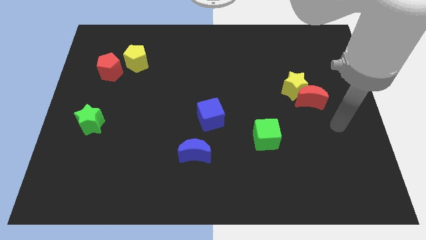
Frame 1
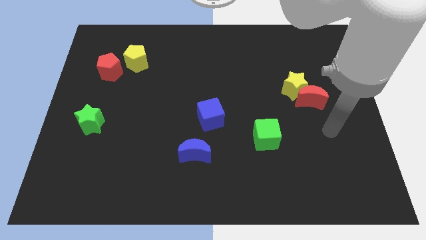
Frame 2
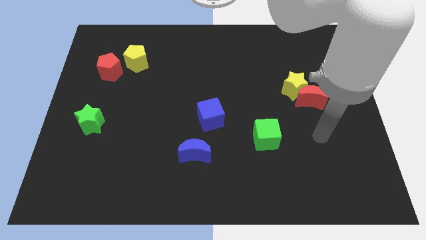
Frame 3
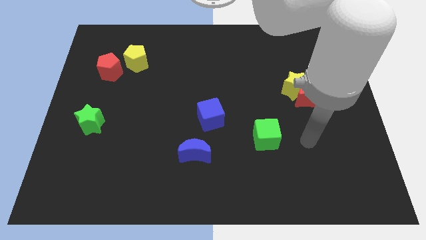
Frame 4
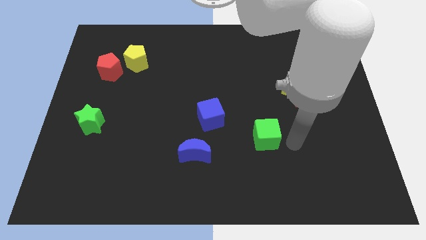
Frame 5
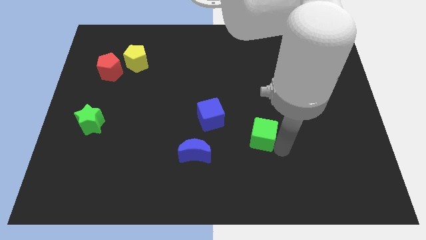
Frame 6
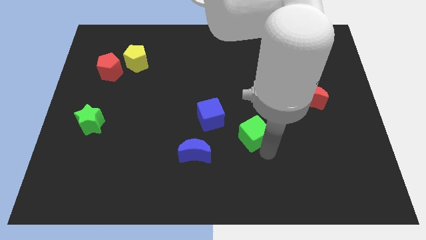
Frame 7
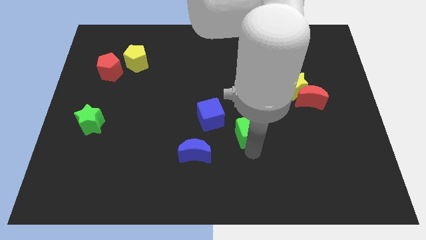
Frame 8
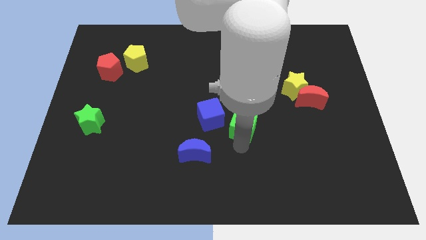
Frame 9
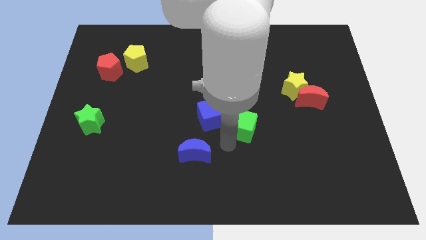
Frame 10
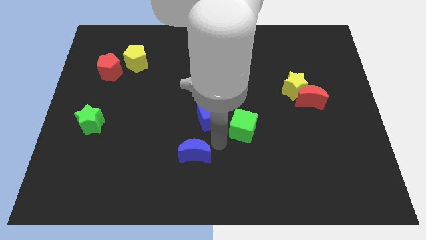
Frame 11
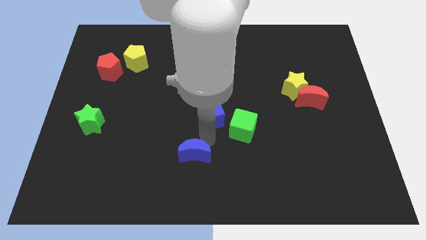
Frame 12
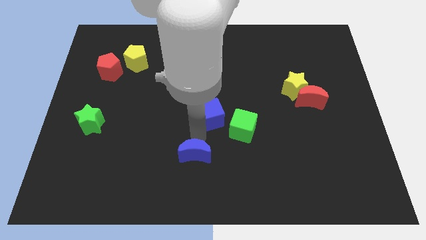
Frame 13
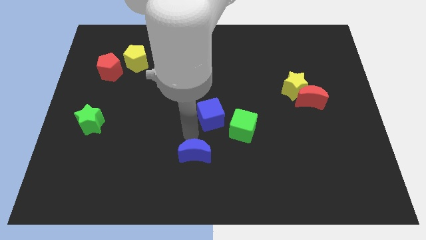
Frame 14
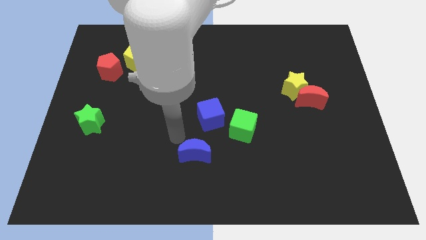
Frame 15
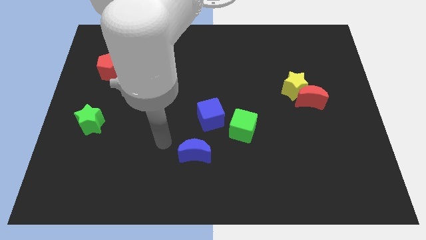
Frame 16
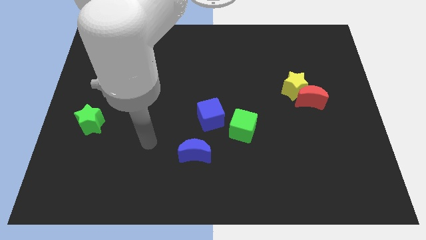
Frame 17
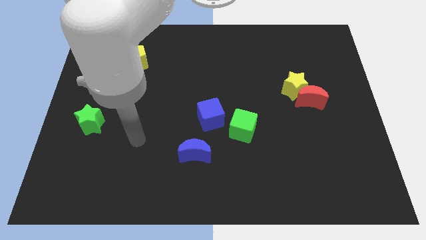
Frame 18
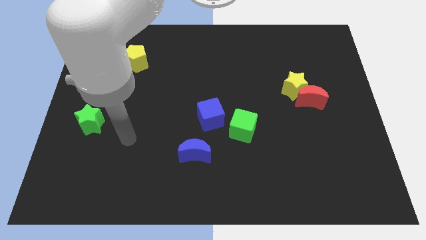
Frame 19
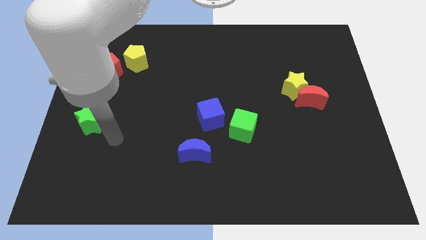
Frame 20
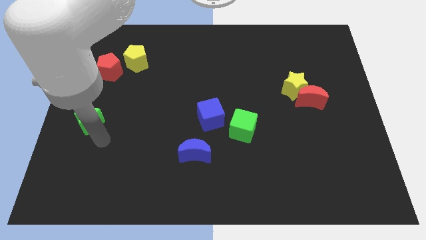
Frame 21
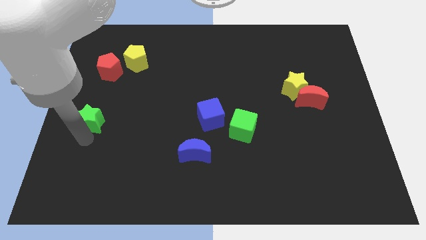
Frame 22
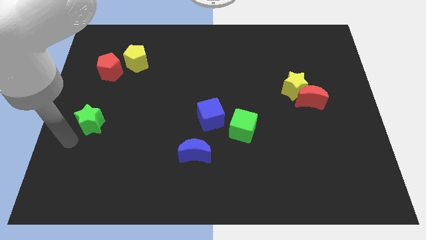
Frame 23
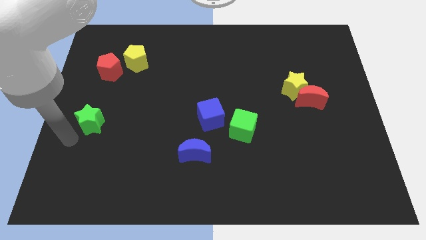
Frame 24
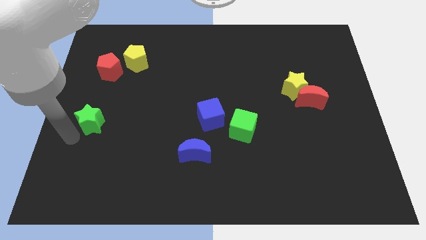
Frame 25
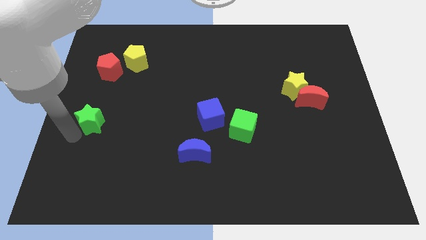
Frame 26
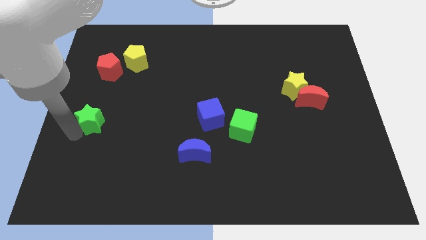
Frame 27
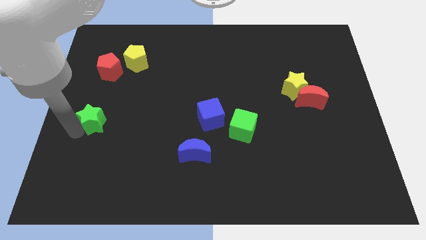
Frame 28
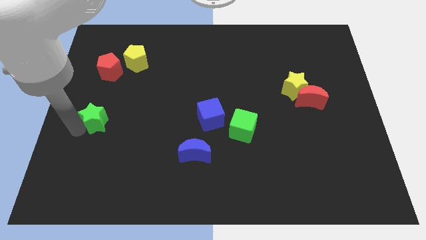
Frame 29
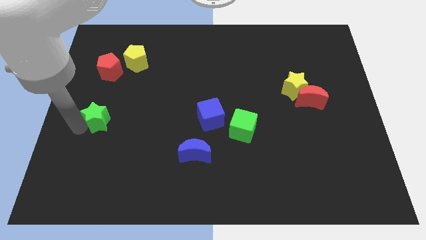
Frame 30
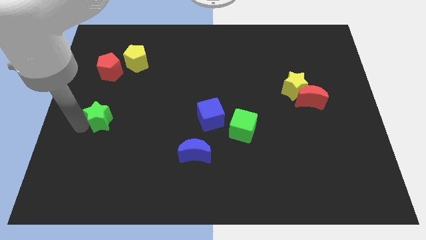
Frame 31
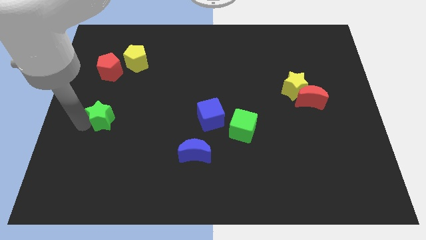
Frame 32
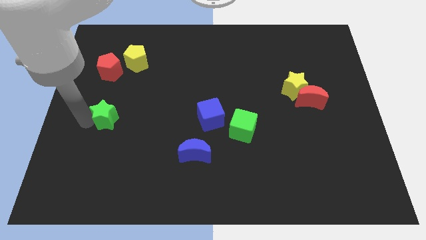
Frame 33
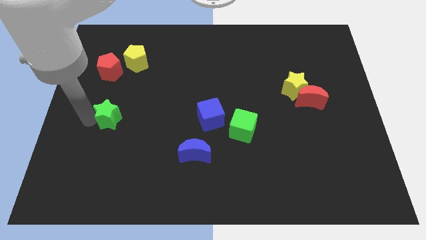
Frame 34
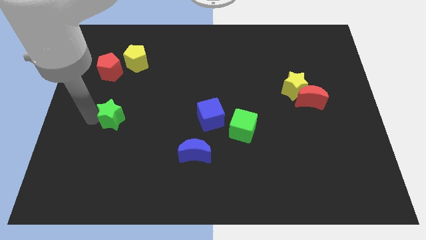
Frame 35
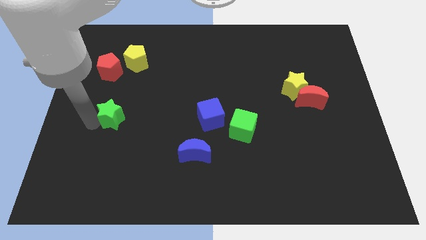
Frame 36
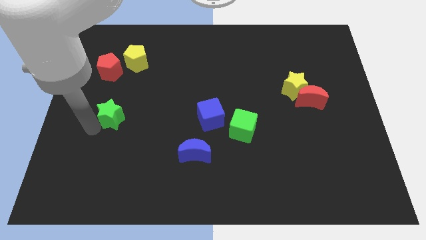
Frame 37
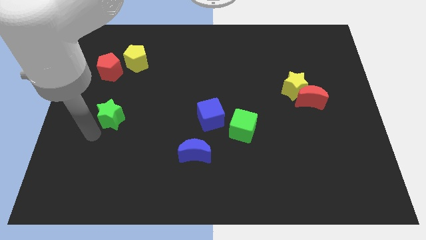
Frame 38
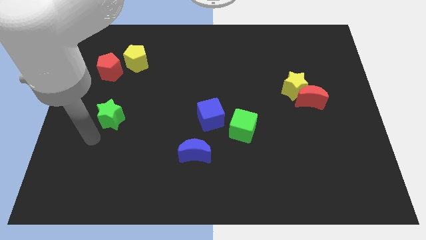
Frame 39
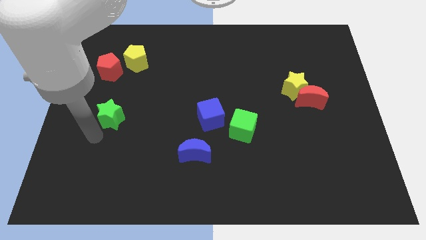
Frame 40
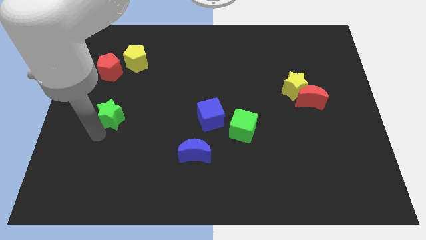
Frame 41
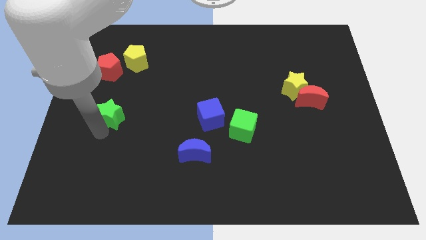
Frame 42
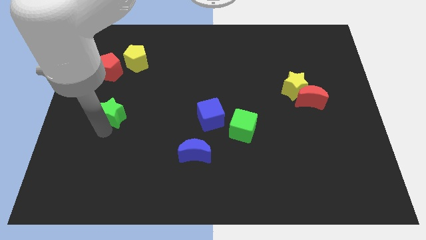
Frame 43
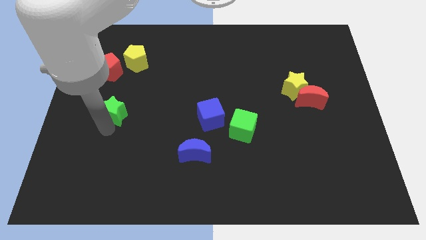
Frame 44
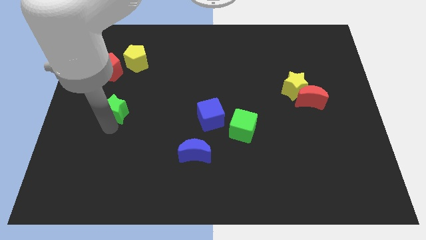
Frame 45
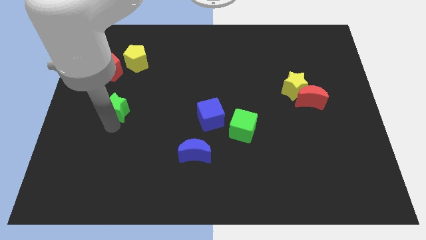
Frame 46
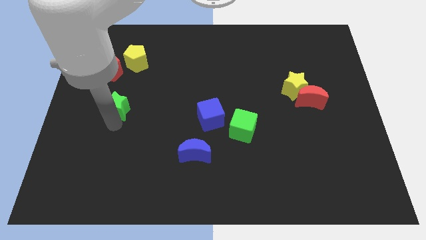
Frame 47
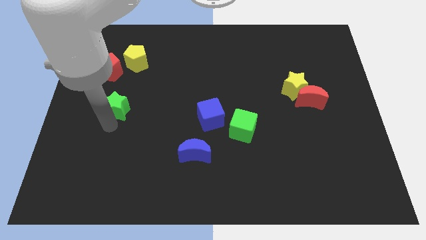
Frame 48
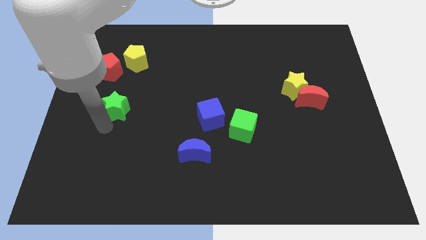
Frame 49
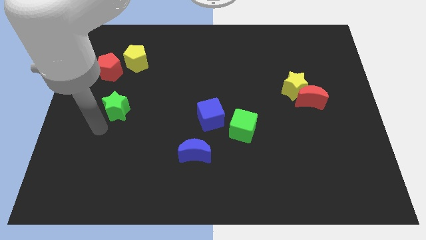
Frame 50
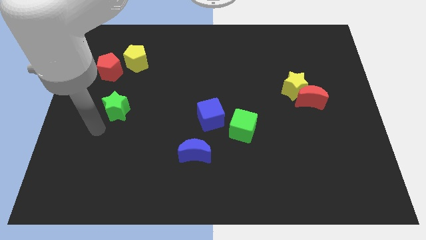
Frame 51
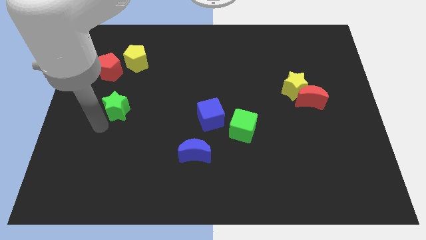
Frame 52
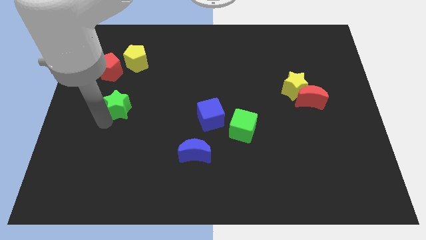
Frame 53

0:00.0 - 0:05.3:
push the green star a bit up and to the right diagonally

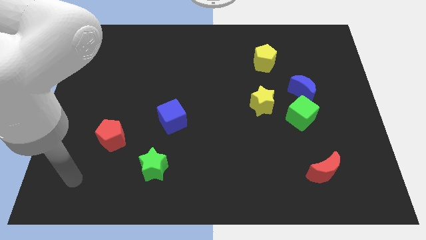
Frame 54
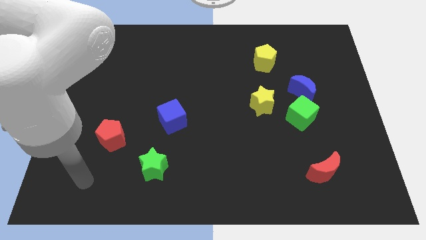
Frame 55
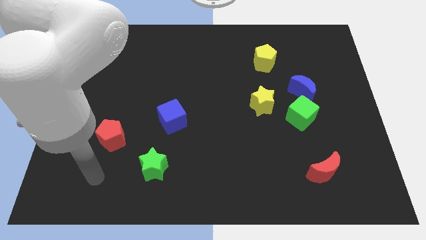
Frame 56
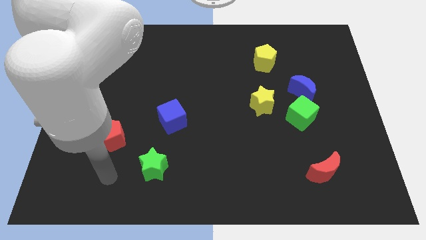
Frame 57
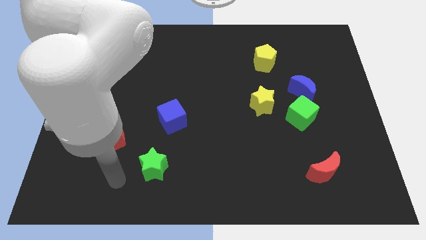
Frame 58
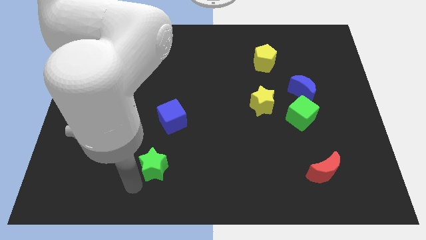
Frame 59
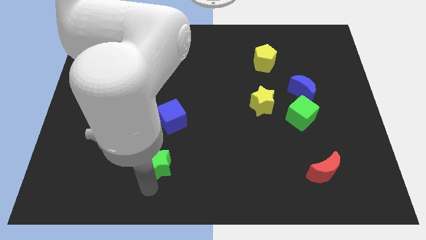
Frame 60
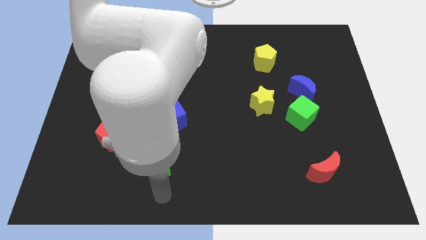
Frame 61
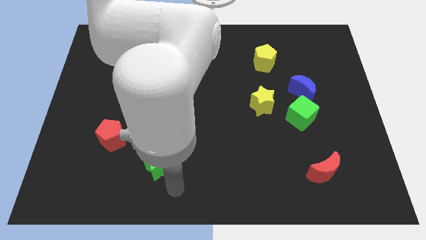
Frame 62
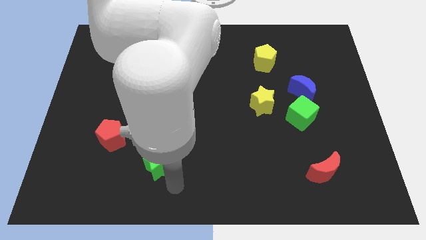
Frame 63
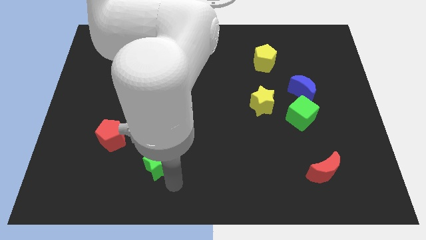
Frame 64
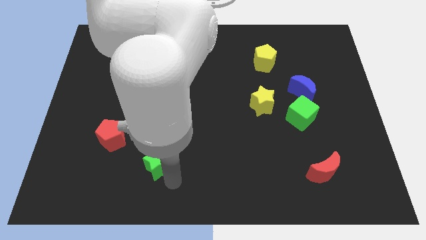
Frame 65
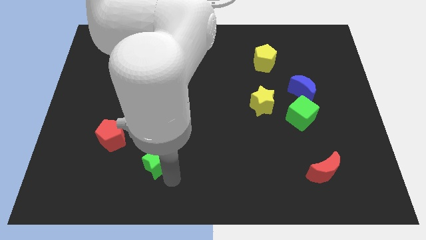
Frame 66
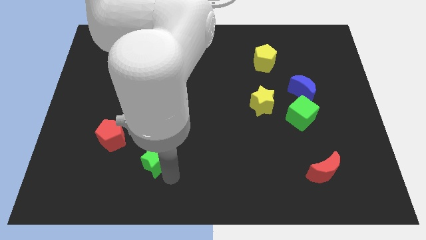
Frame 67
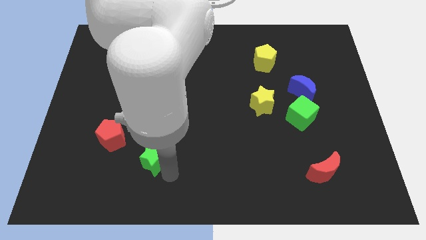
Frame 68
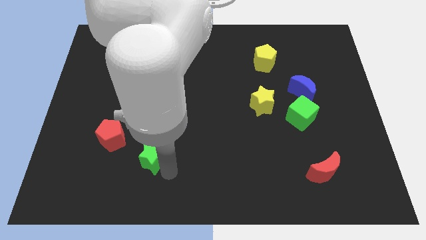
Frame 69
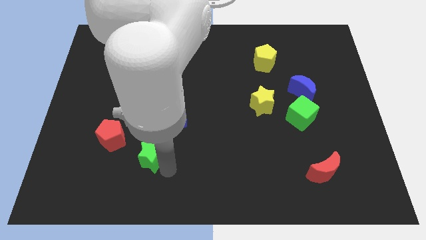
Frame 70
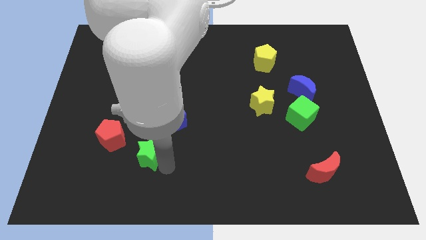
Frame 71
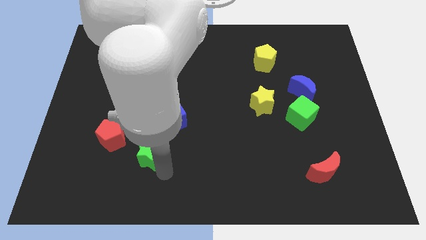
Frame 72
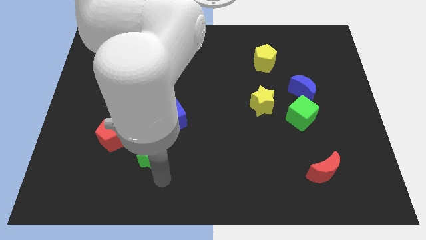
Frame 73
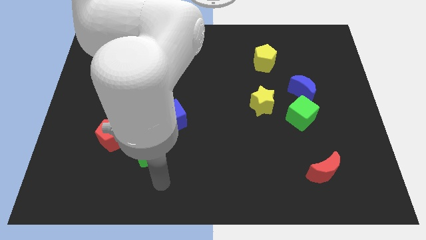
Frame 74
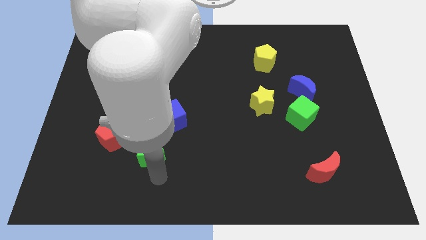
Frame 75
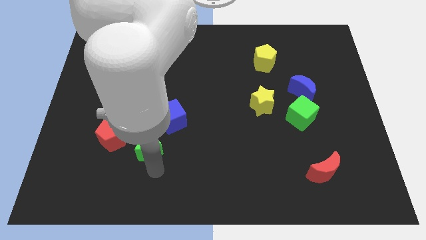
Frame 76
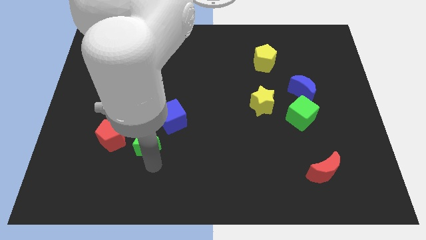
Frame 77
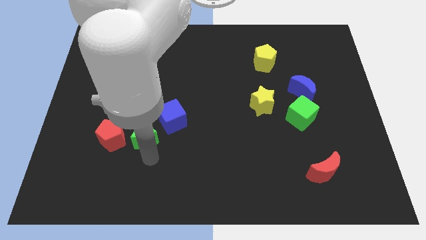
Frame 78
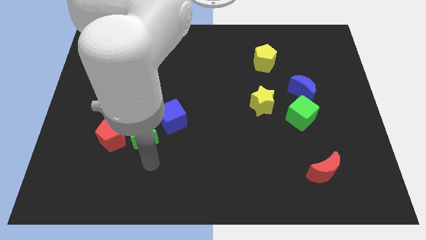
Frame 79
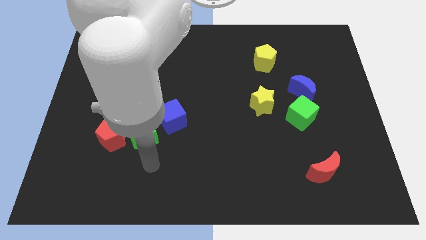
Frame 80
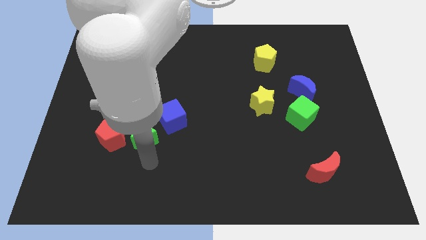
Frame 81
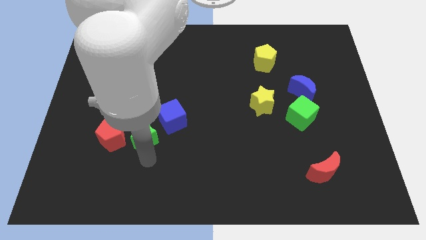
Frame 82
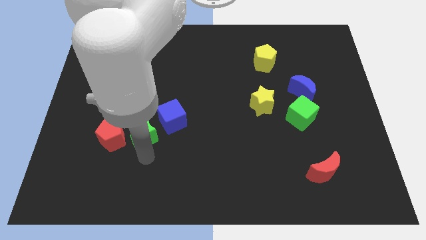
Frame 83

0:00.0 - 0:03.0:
slightly slide the green star upwards and then to the left
